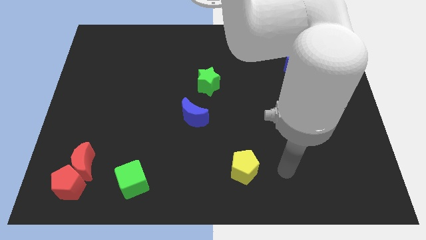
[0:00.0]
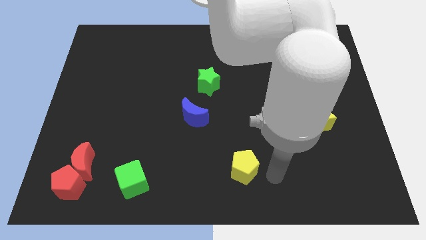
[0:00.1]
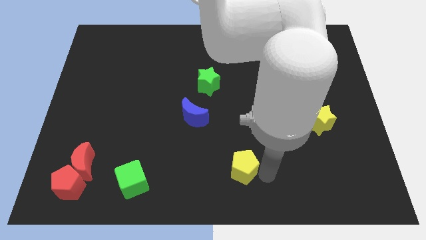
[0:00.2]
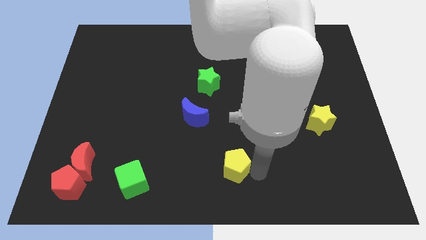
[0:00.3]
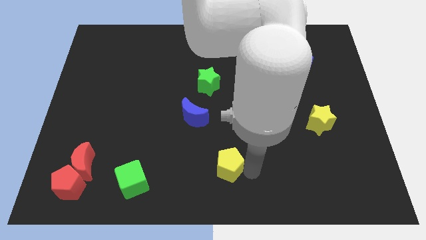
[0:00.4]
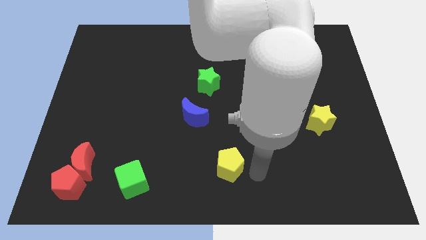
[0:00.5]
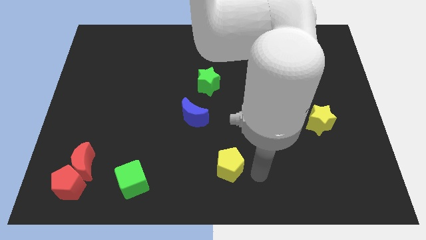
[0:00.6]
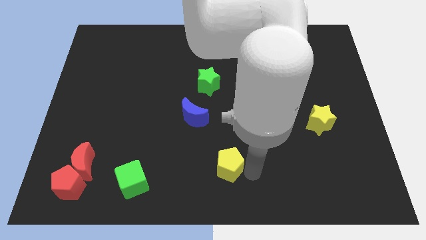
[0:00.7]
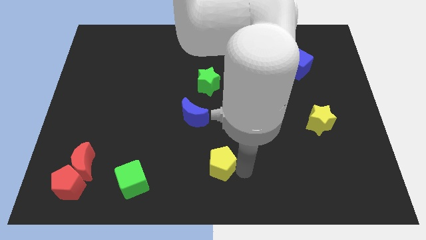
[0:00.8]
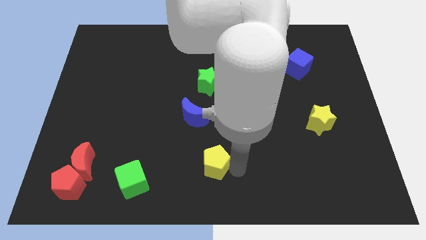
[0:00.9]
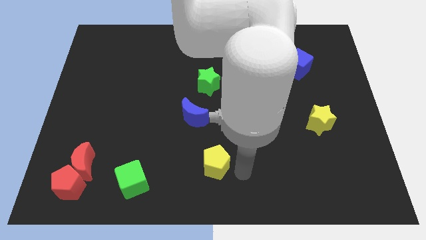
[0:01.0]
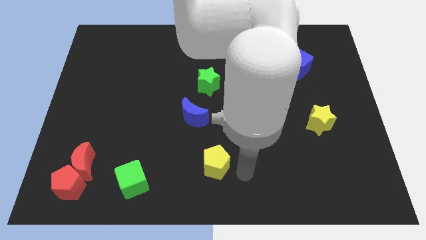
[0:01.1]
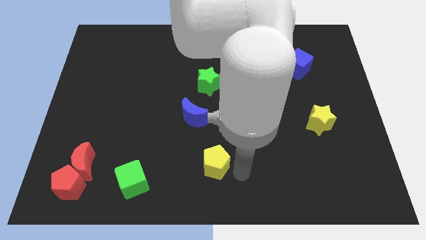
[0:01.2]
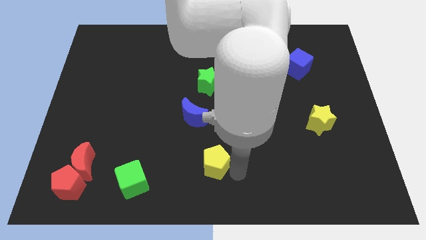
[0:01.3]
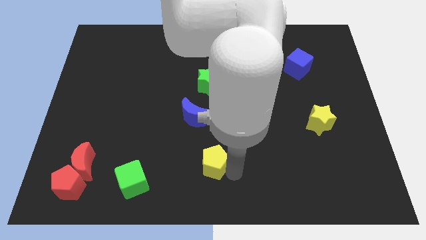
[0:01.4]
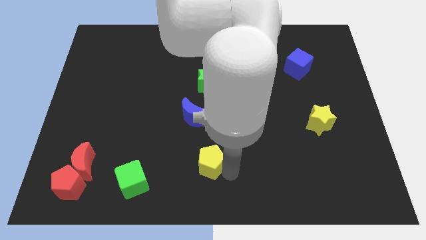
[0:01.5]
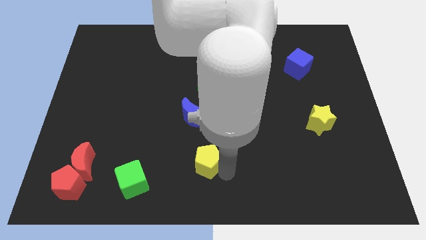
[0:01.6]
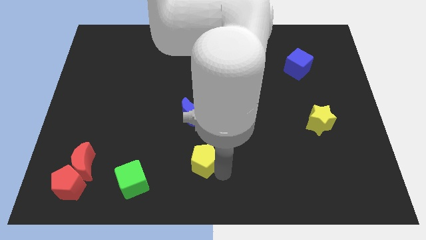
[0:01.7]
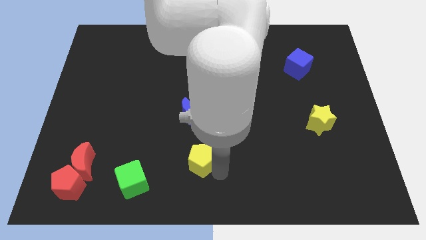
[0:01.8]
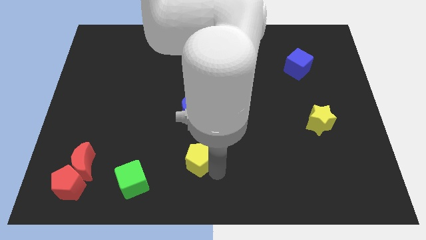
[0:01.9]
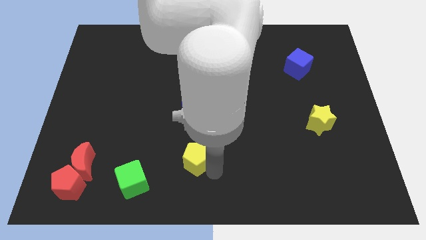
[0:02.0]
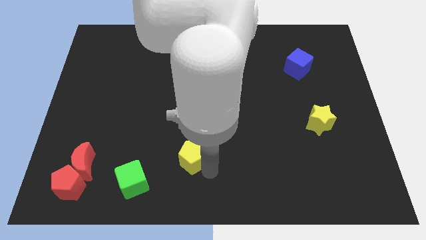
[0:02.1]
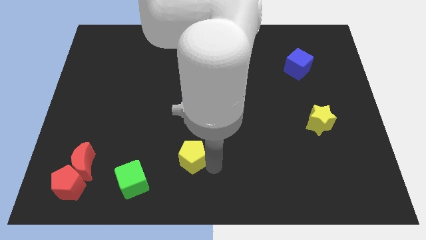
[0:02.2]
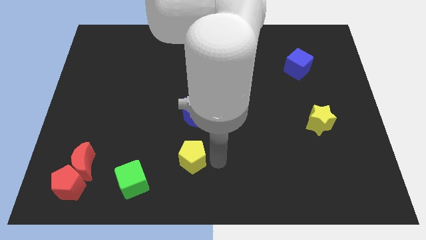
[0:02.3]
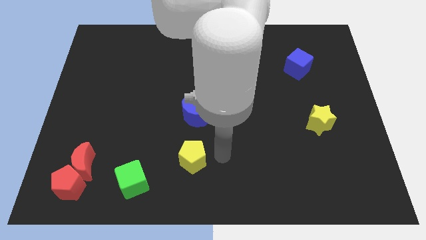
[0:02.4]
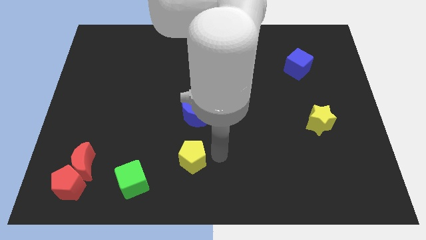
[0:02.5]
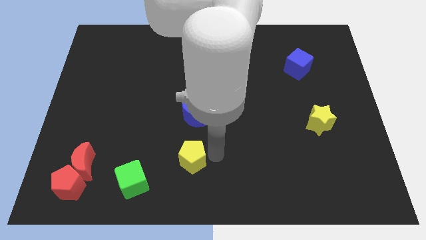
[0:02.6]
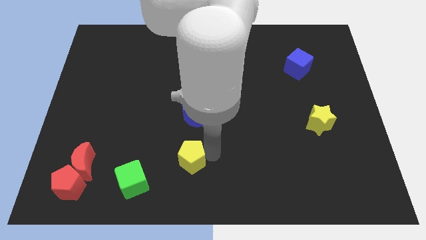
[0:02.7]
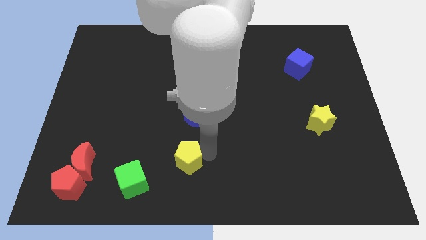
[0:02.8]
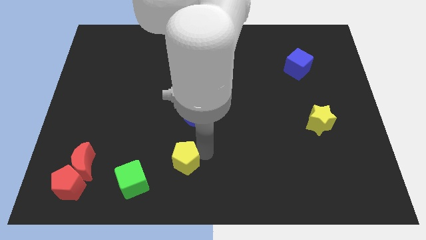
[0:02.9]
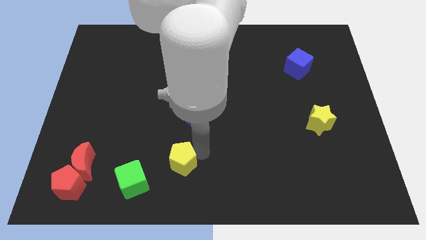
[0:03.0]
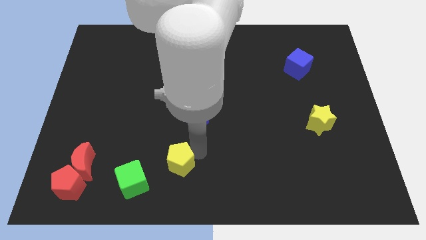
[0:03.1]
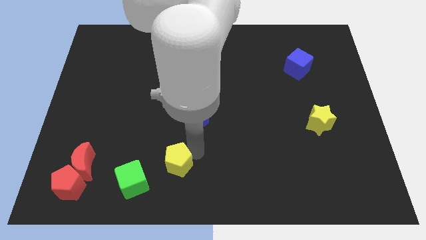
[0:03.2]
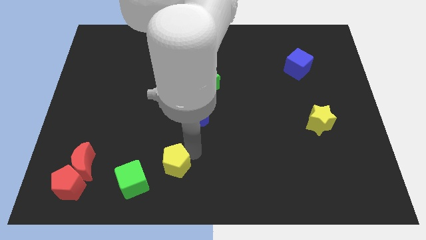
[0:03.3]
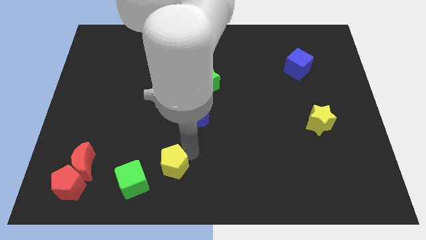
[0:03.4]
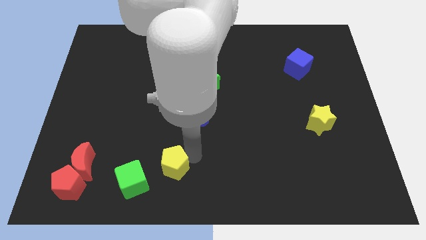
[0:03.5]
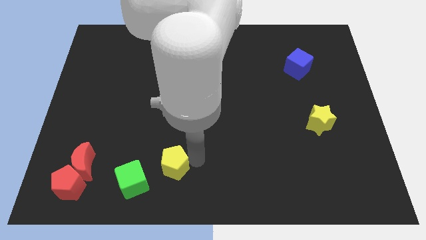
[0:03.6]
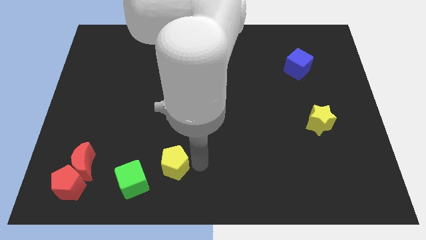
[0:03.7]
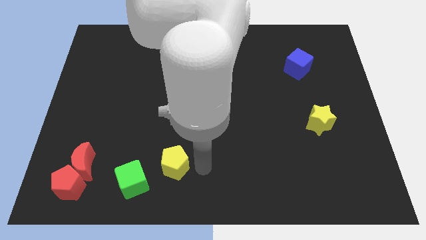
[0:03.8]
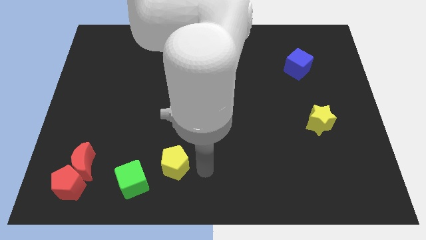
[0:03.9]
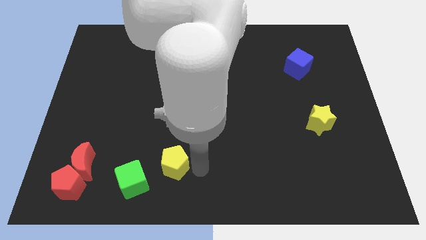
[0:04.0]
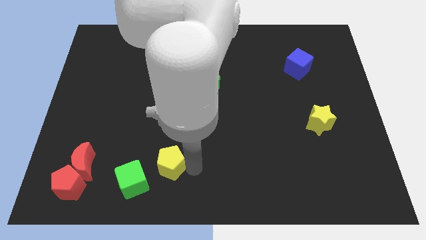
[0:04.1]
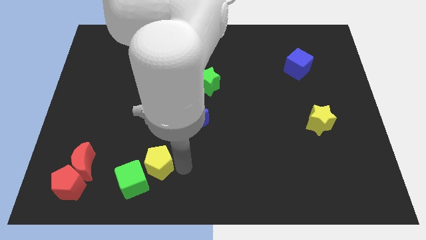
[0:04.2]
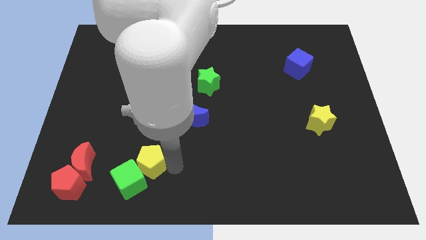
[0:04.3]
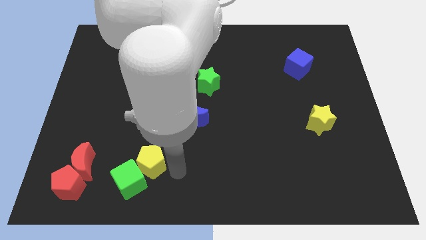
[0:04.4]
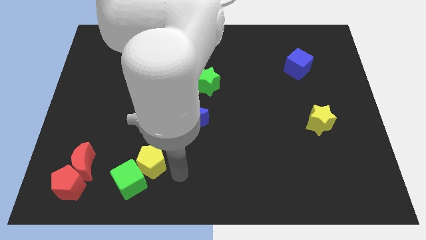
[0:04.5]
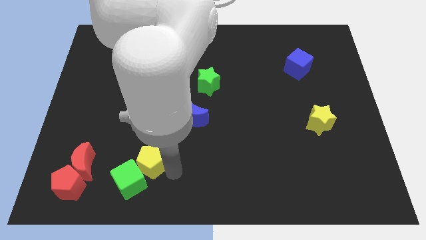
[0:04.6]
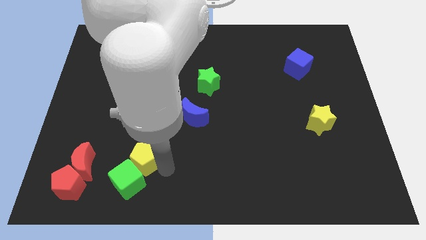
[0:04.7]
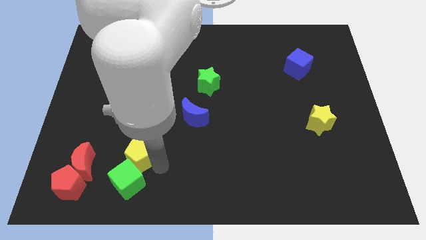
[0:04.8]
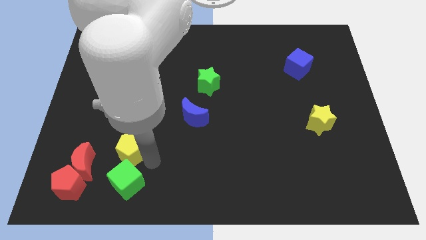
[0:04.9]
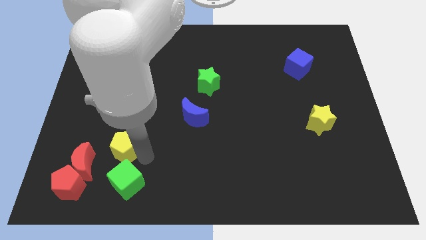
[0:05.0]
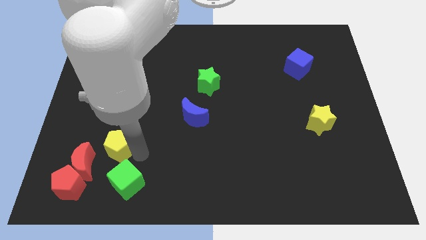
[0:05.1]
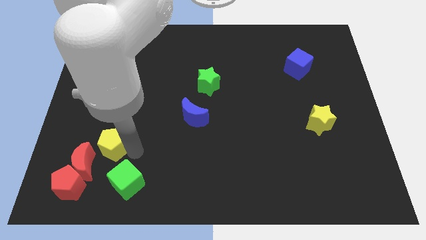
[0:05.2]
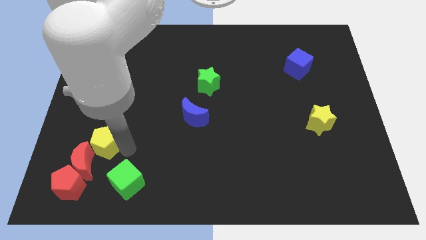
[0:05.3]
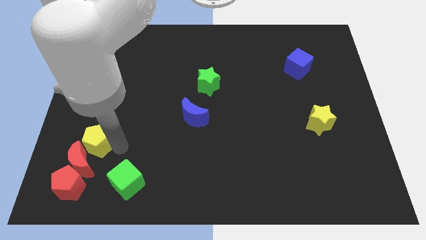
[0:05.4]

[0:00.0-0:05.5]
slide the yellow pentagon to the top side of the red pentagon

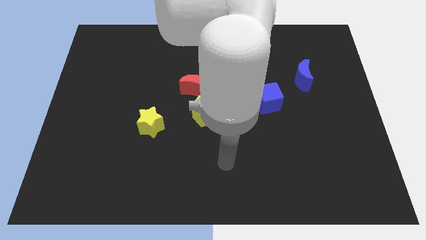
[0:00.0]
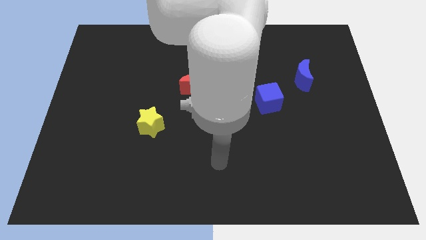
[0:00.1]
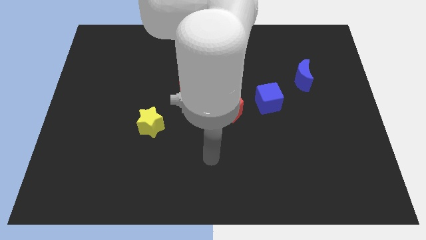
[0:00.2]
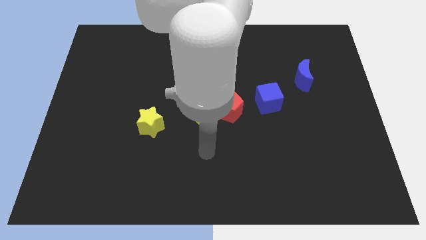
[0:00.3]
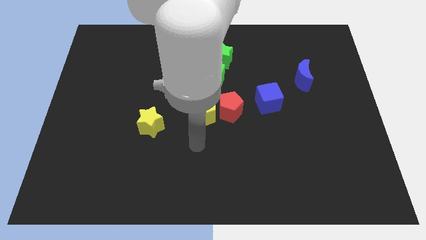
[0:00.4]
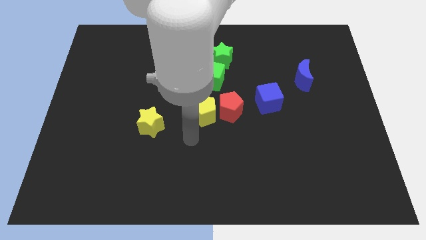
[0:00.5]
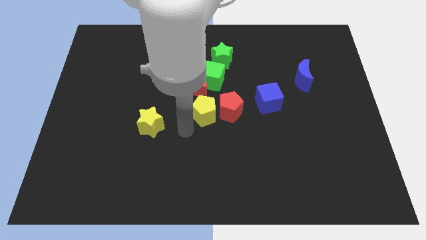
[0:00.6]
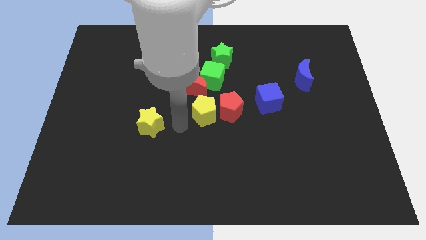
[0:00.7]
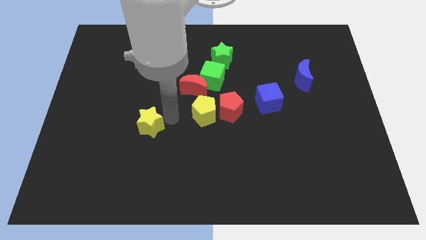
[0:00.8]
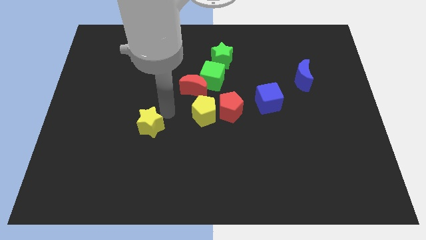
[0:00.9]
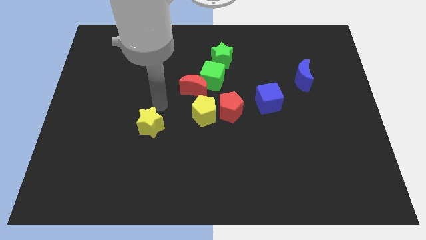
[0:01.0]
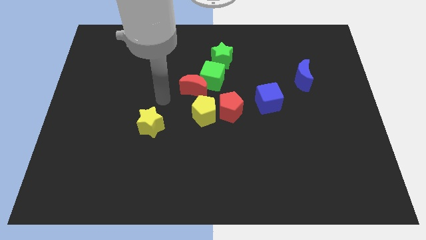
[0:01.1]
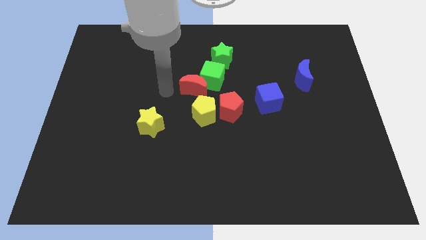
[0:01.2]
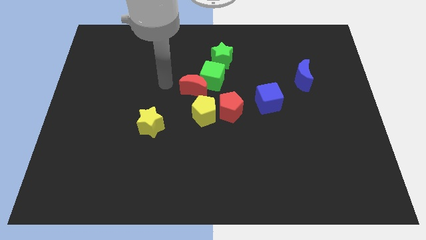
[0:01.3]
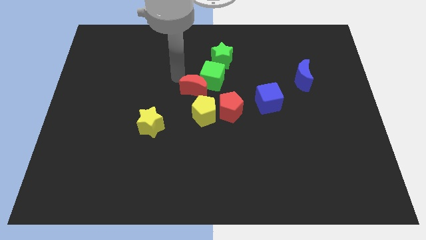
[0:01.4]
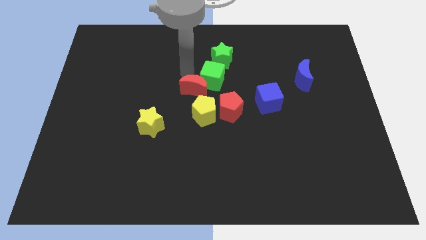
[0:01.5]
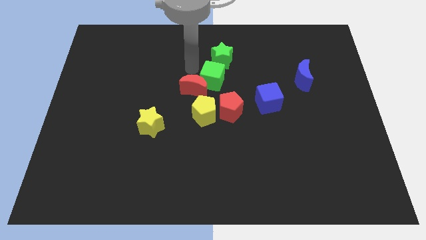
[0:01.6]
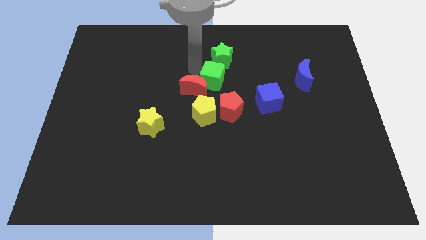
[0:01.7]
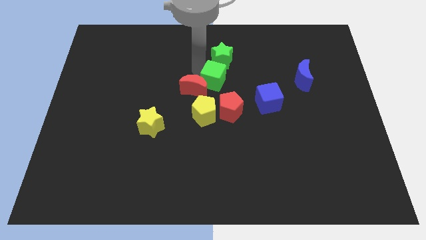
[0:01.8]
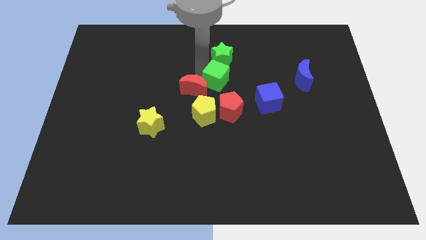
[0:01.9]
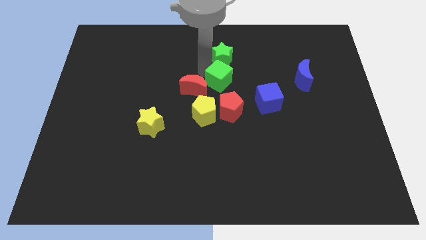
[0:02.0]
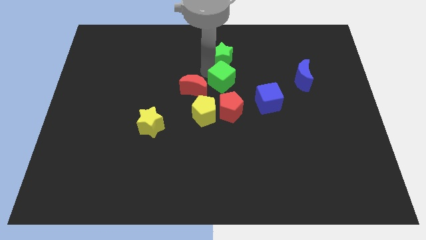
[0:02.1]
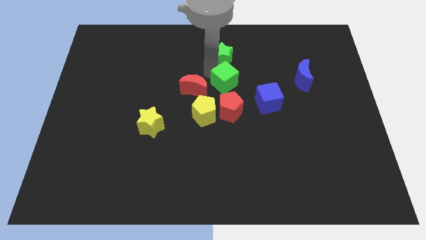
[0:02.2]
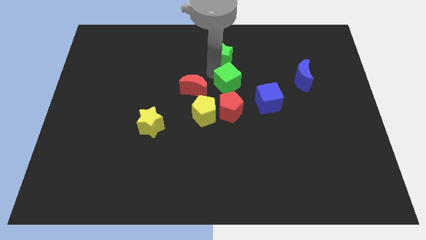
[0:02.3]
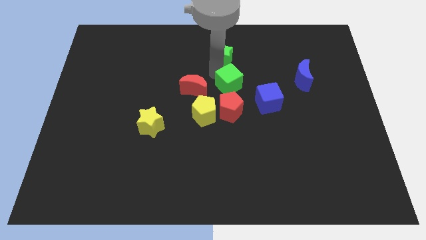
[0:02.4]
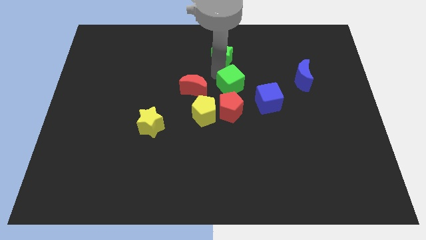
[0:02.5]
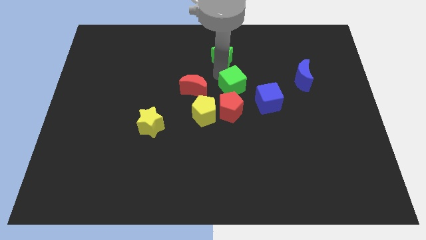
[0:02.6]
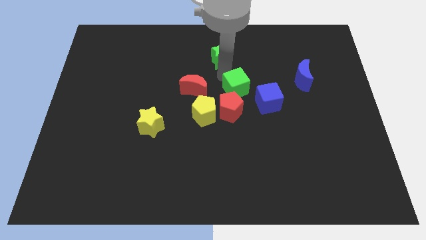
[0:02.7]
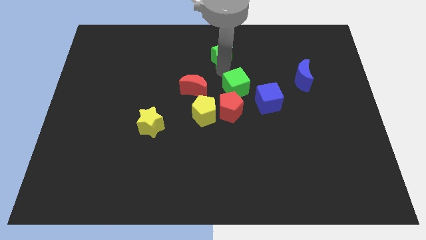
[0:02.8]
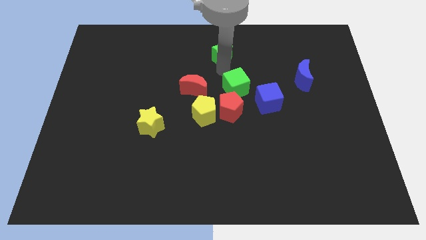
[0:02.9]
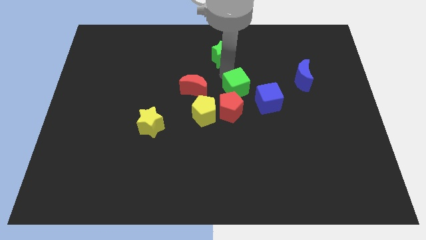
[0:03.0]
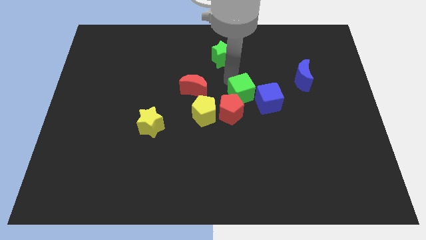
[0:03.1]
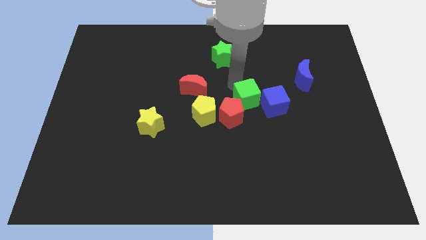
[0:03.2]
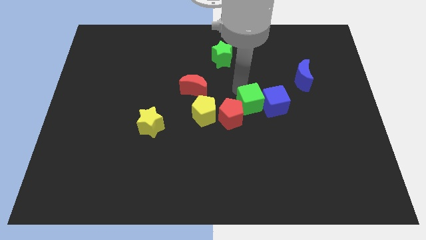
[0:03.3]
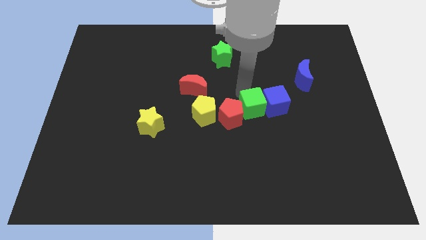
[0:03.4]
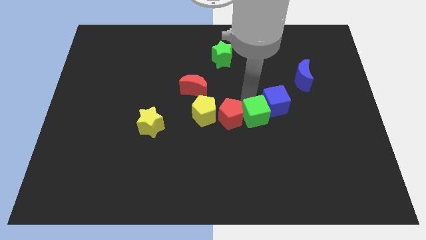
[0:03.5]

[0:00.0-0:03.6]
push the green cube to the bottom right of the red pentagon
